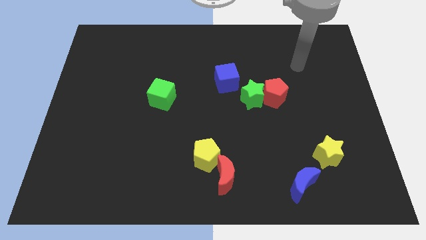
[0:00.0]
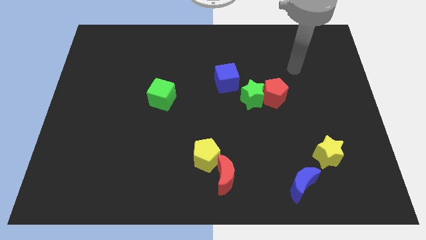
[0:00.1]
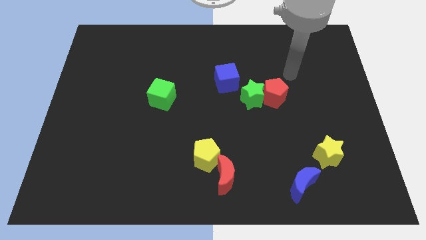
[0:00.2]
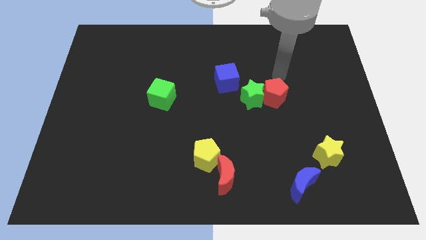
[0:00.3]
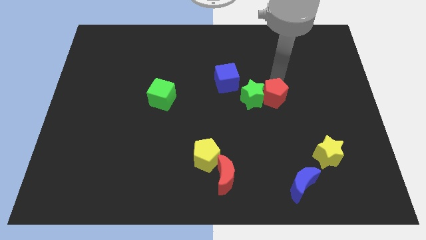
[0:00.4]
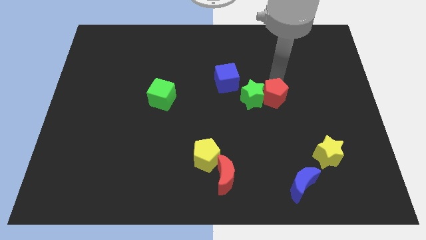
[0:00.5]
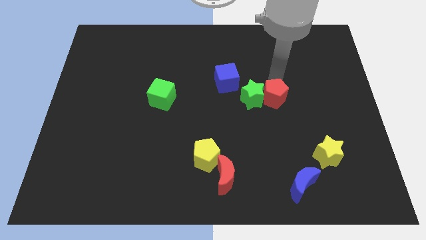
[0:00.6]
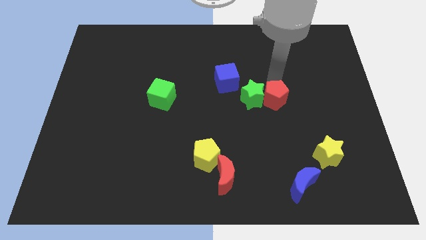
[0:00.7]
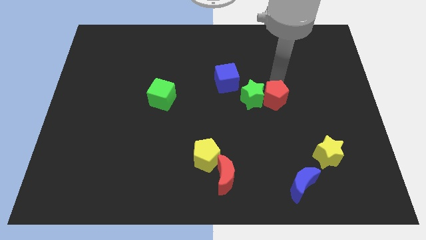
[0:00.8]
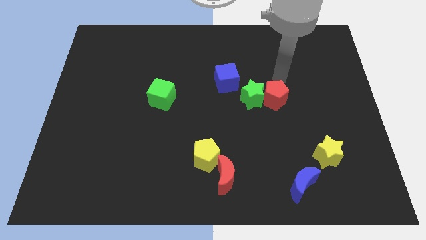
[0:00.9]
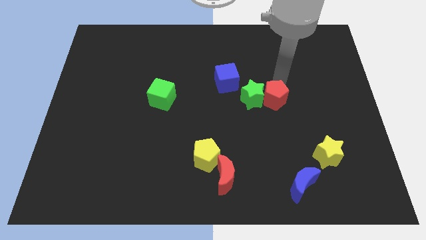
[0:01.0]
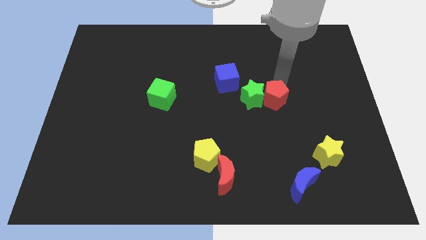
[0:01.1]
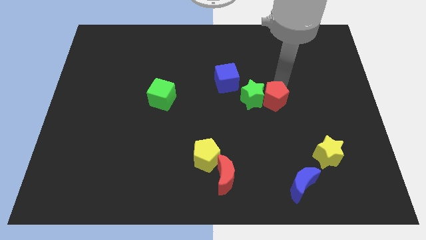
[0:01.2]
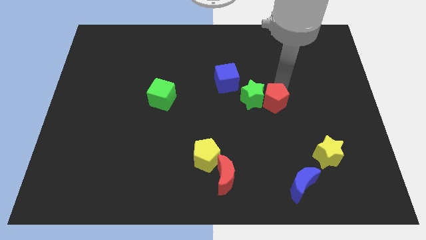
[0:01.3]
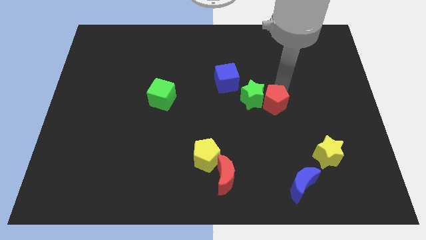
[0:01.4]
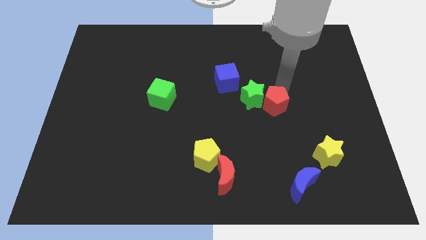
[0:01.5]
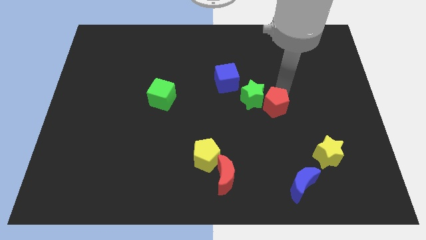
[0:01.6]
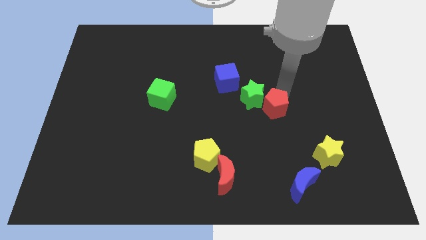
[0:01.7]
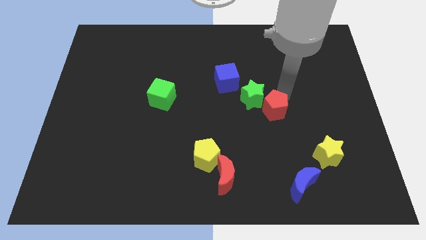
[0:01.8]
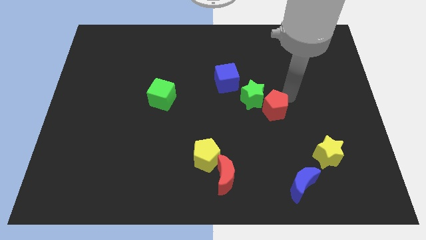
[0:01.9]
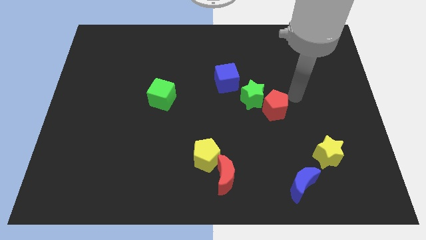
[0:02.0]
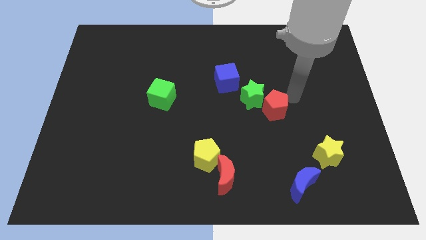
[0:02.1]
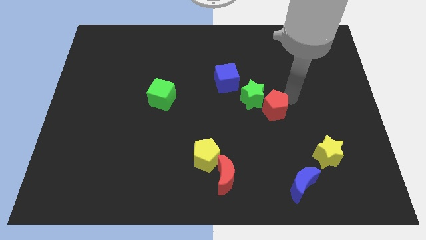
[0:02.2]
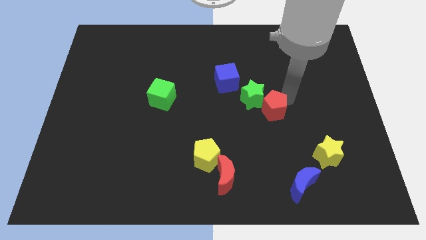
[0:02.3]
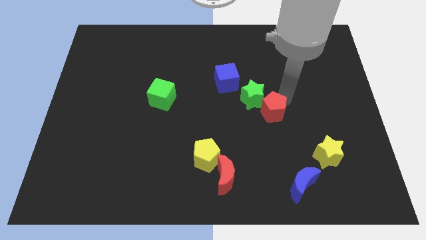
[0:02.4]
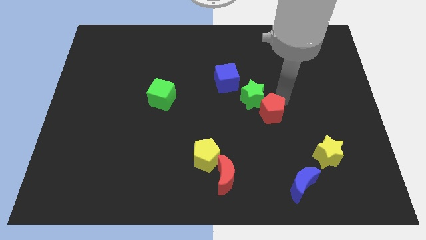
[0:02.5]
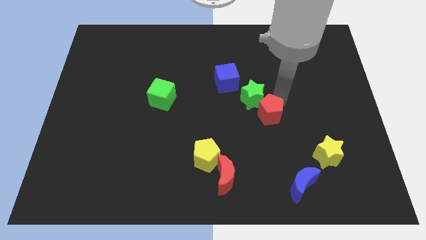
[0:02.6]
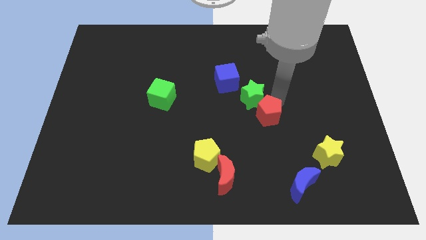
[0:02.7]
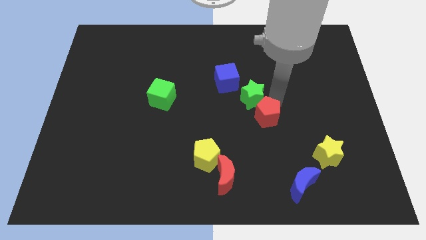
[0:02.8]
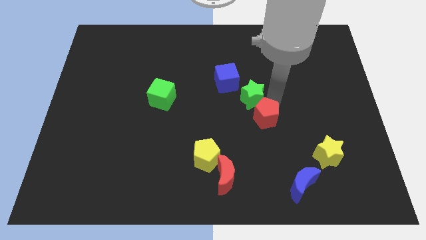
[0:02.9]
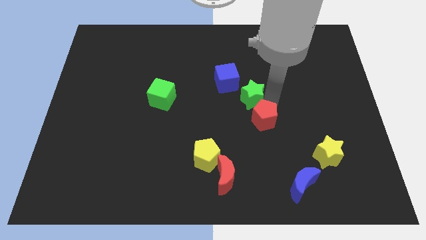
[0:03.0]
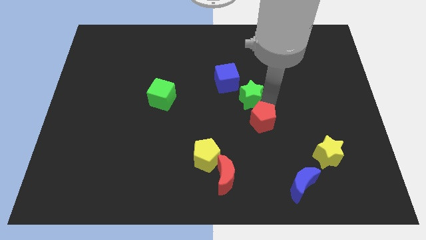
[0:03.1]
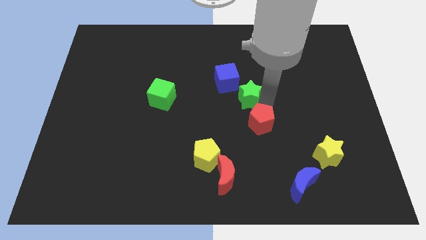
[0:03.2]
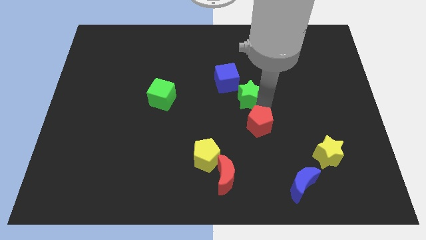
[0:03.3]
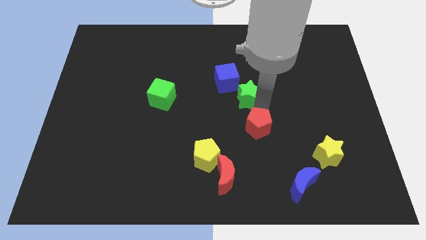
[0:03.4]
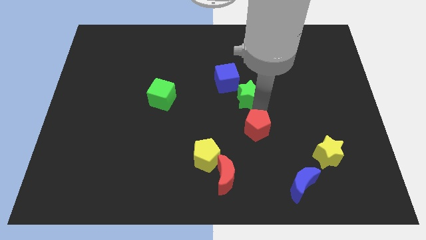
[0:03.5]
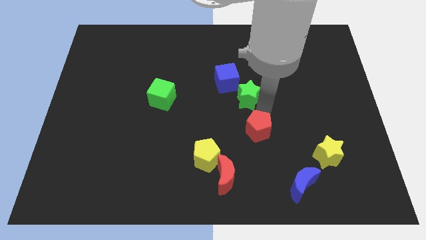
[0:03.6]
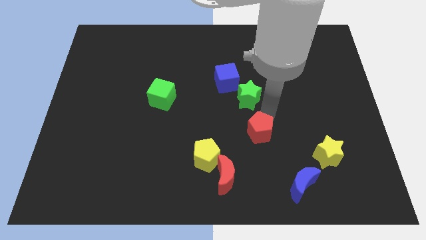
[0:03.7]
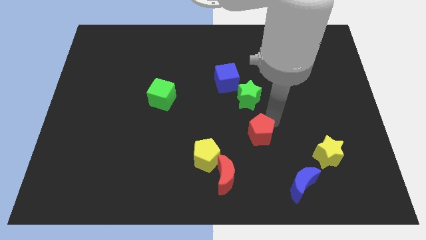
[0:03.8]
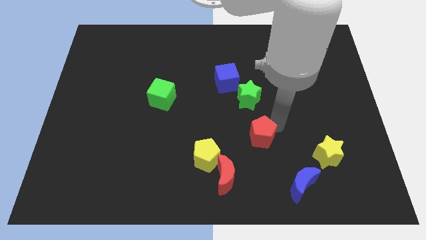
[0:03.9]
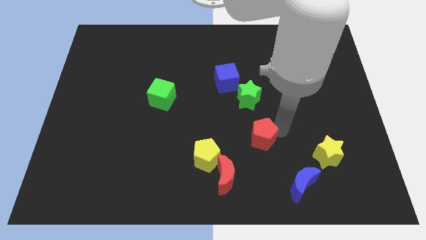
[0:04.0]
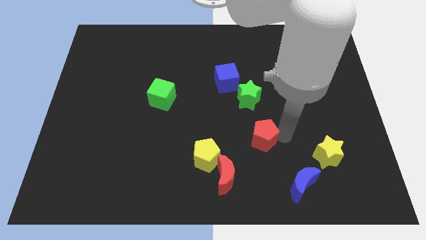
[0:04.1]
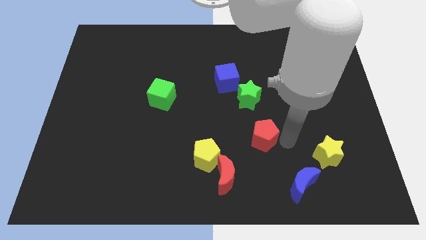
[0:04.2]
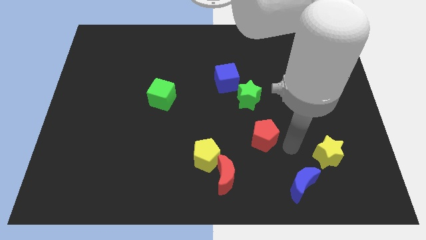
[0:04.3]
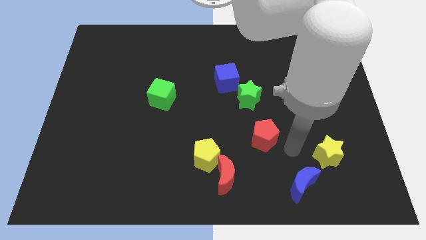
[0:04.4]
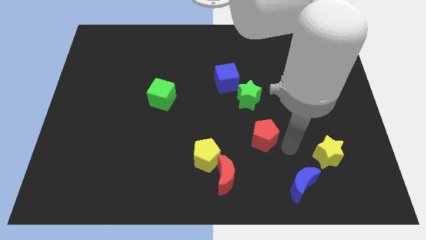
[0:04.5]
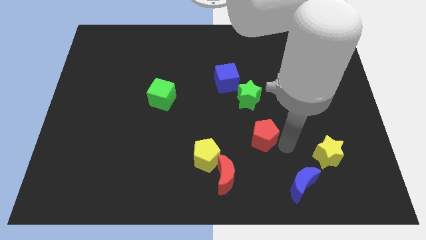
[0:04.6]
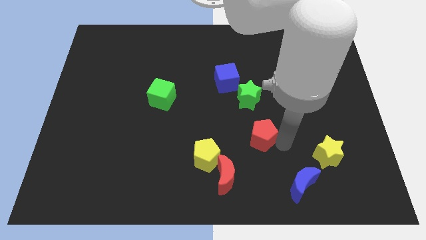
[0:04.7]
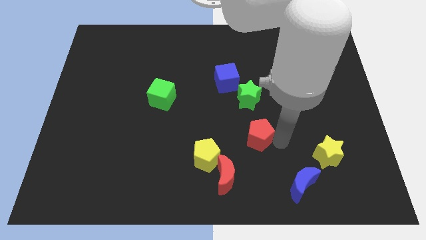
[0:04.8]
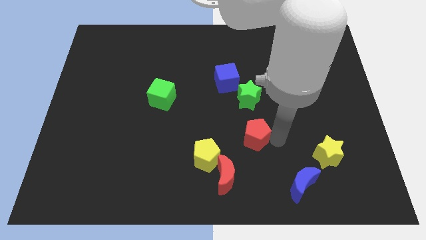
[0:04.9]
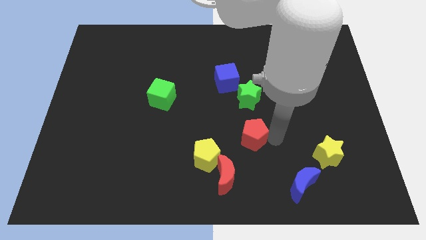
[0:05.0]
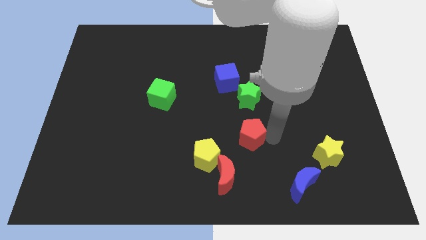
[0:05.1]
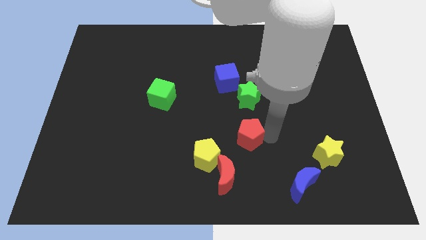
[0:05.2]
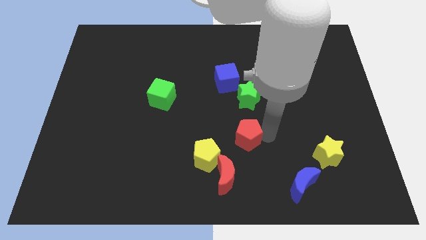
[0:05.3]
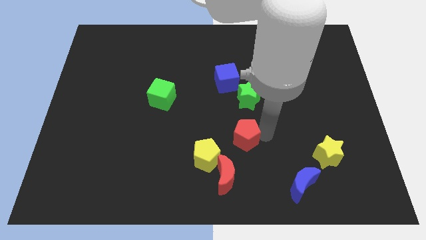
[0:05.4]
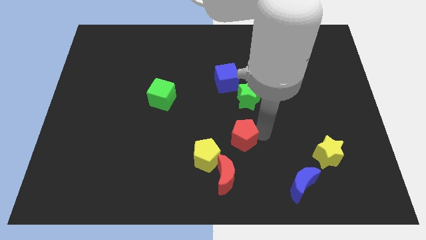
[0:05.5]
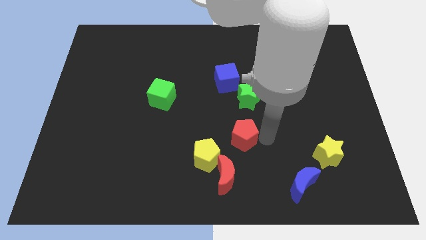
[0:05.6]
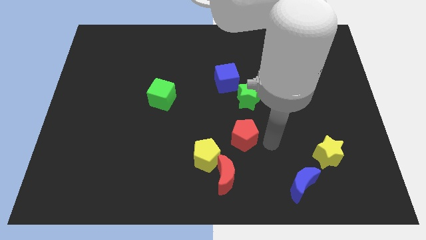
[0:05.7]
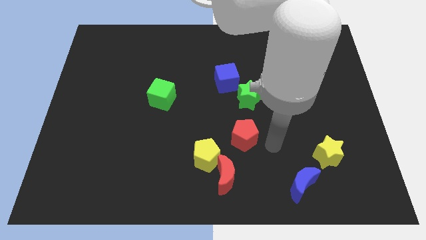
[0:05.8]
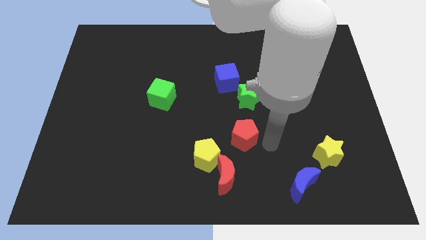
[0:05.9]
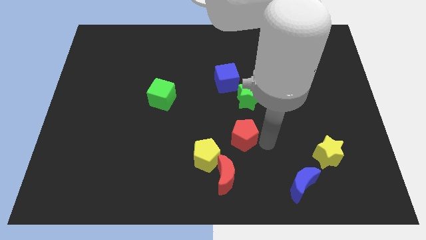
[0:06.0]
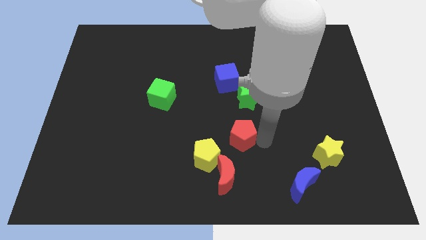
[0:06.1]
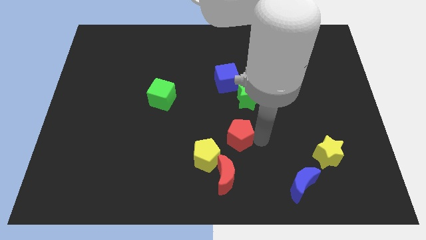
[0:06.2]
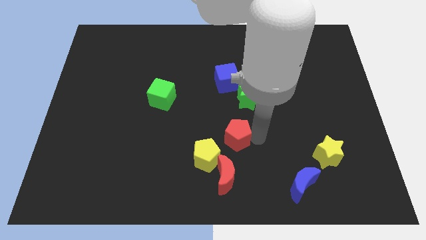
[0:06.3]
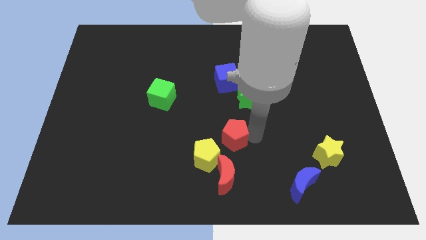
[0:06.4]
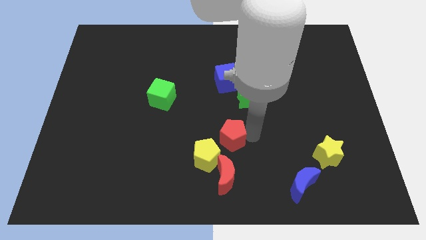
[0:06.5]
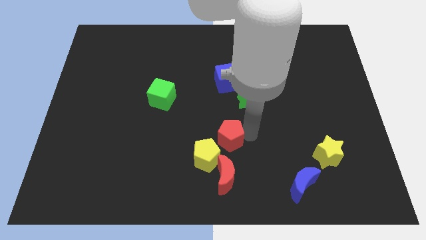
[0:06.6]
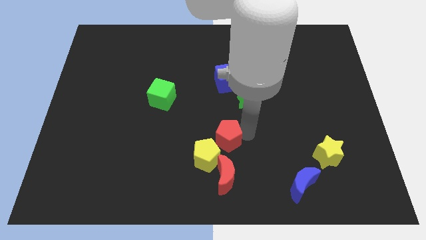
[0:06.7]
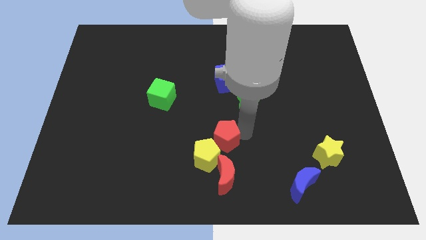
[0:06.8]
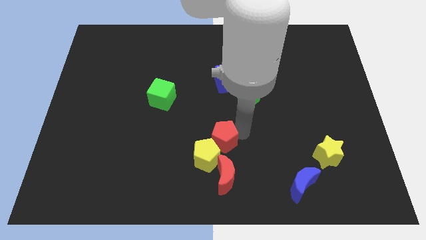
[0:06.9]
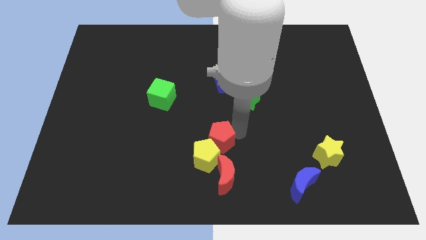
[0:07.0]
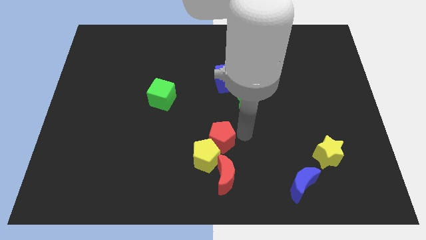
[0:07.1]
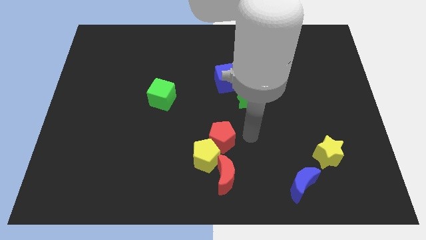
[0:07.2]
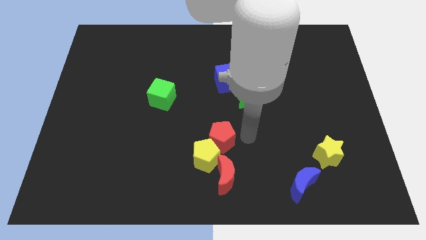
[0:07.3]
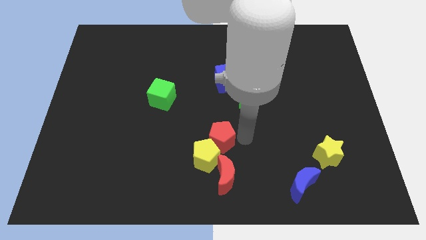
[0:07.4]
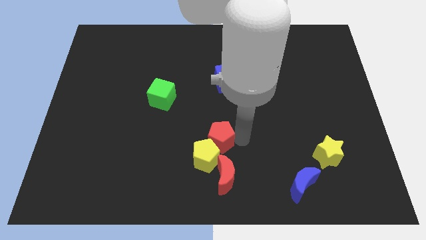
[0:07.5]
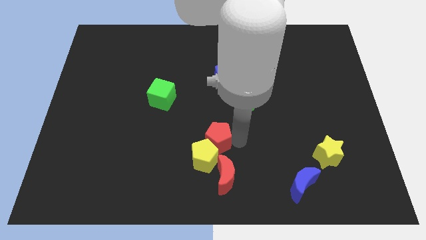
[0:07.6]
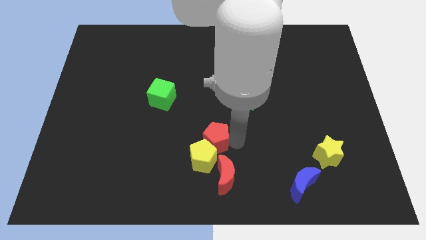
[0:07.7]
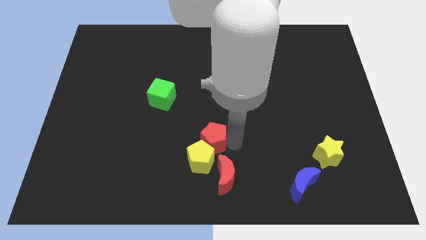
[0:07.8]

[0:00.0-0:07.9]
move the red pentagon downwards and then left
